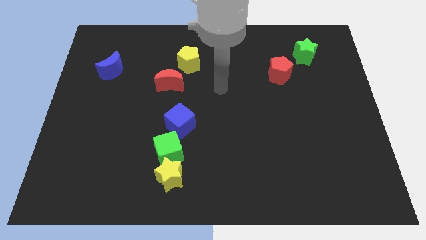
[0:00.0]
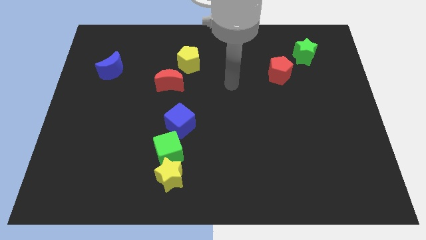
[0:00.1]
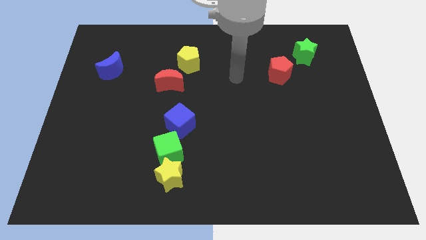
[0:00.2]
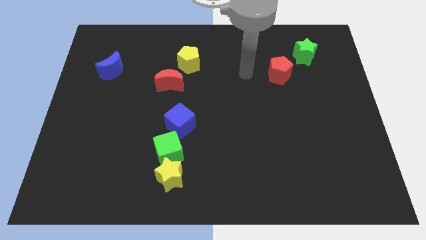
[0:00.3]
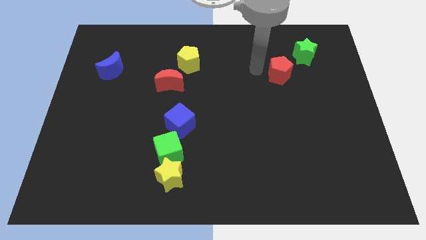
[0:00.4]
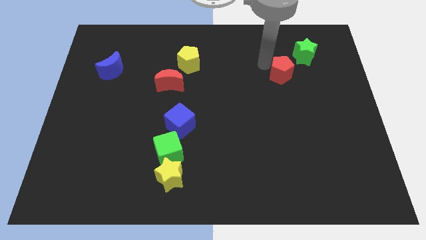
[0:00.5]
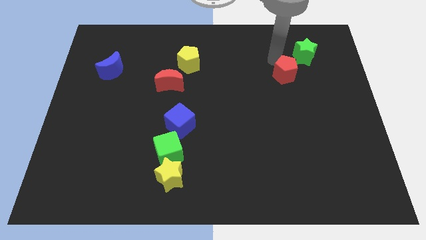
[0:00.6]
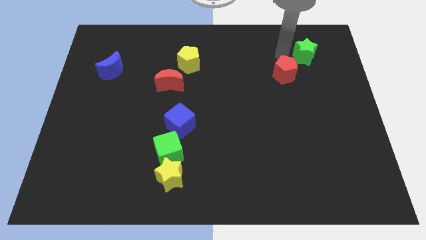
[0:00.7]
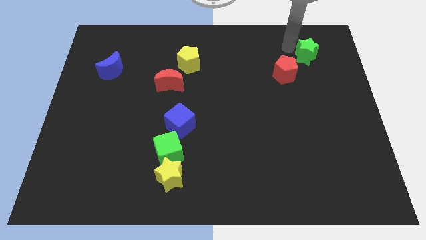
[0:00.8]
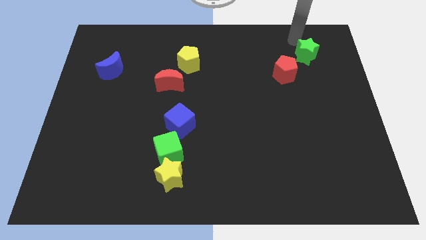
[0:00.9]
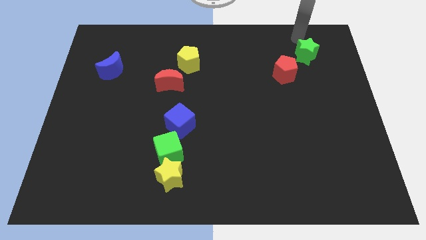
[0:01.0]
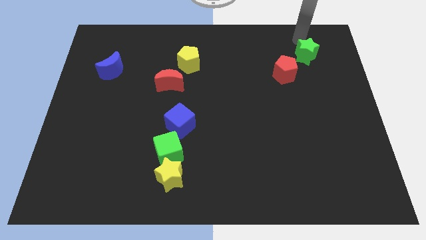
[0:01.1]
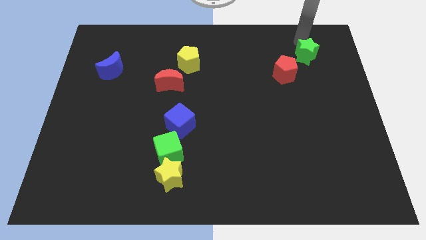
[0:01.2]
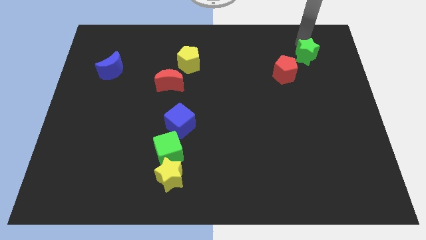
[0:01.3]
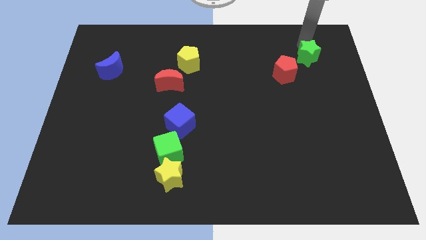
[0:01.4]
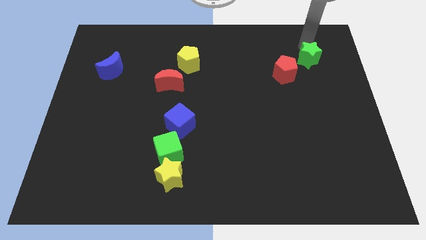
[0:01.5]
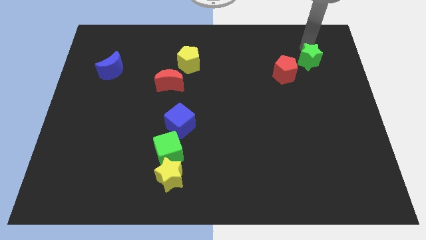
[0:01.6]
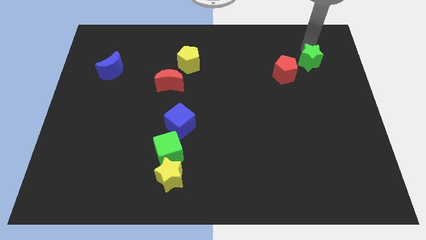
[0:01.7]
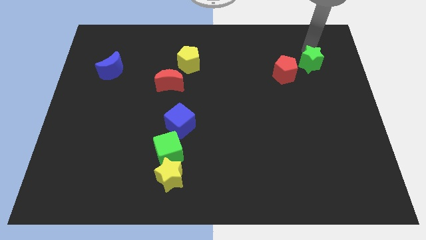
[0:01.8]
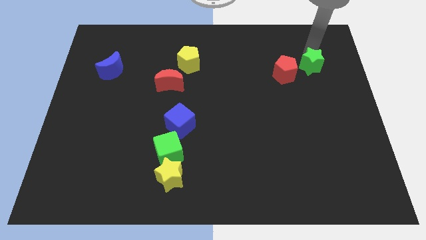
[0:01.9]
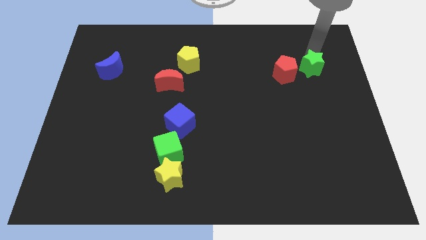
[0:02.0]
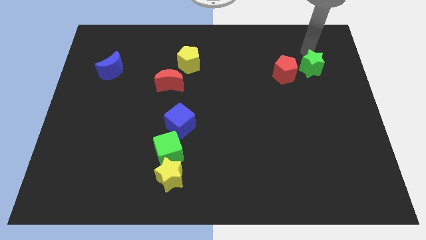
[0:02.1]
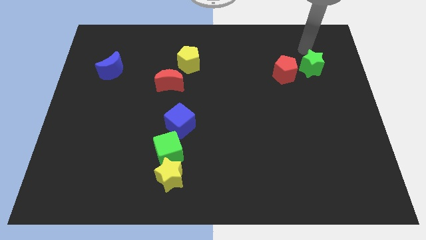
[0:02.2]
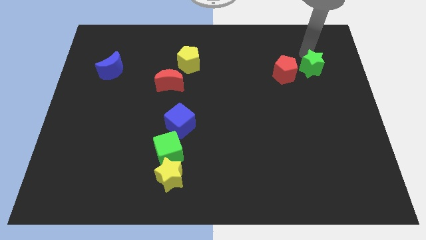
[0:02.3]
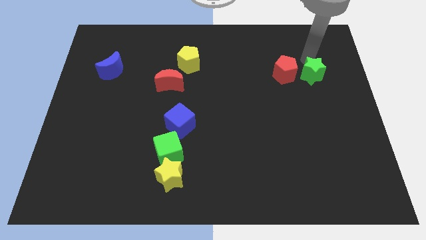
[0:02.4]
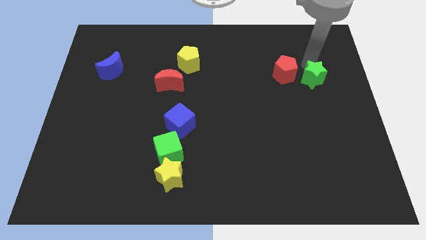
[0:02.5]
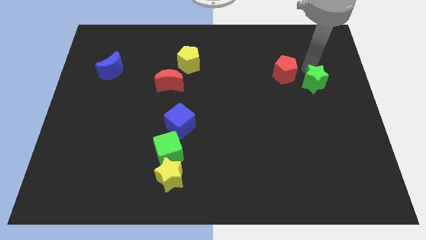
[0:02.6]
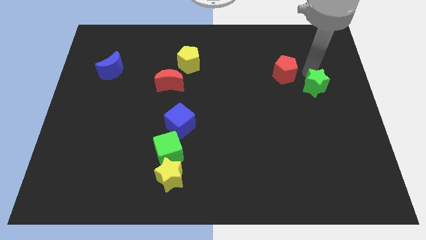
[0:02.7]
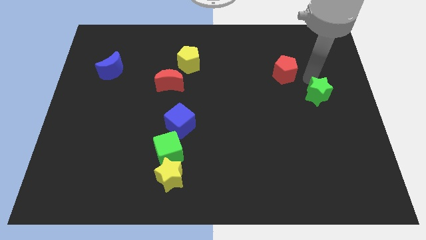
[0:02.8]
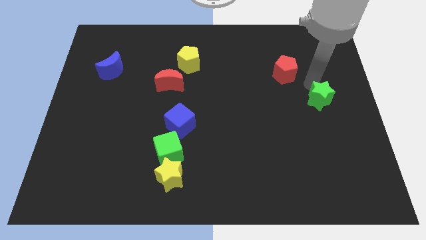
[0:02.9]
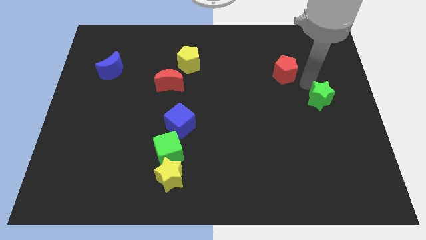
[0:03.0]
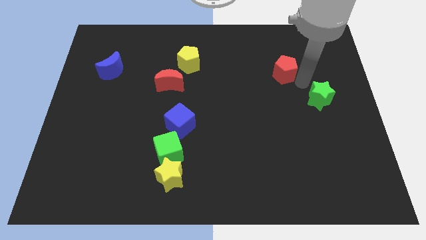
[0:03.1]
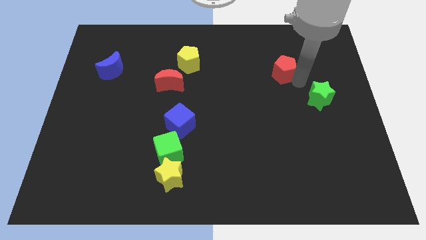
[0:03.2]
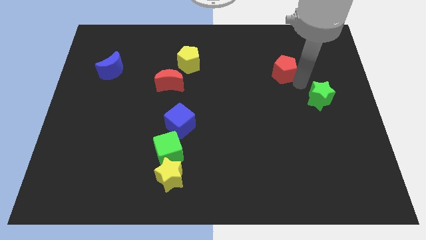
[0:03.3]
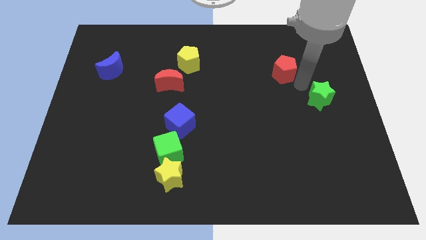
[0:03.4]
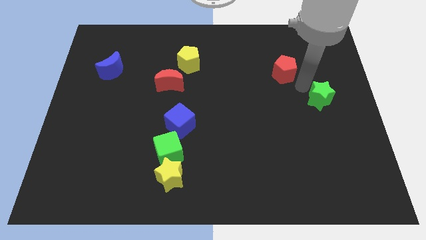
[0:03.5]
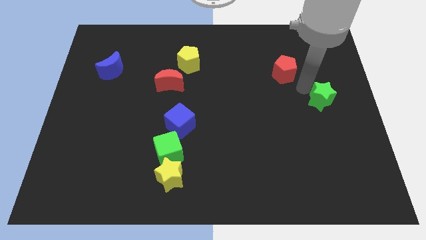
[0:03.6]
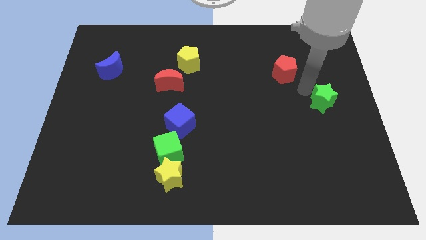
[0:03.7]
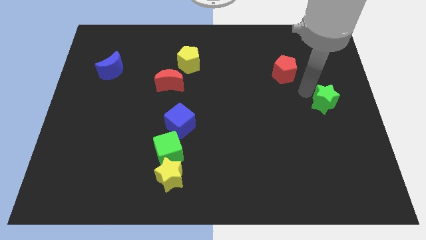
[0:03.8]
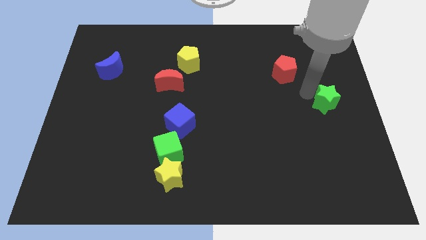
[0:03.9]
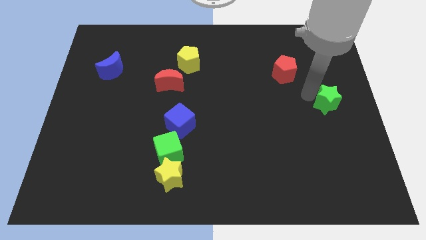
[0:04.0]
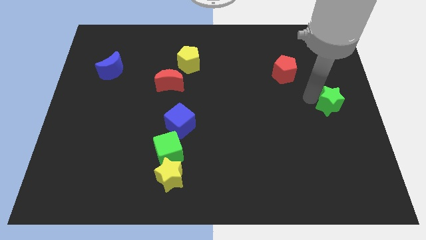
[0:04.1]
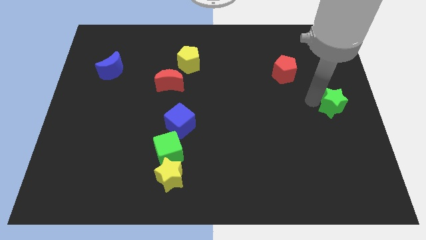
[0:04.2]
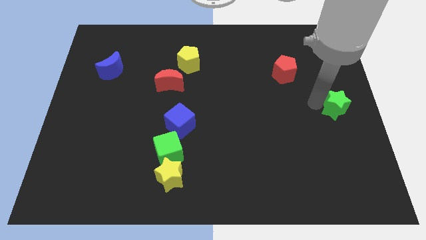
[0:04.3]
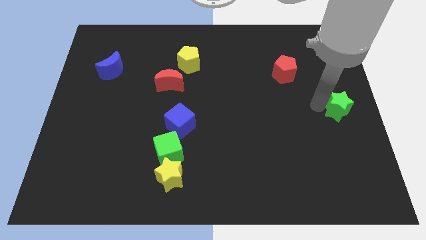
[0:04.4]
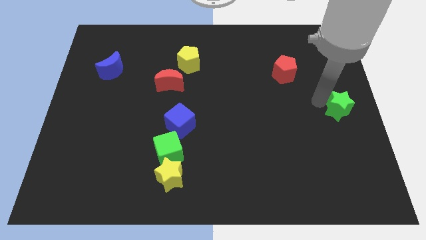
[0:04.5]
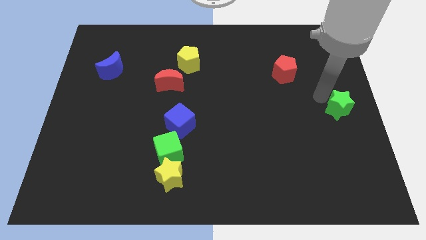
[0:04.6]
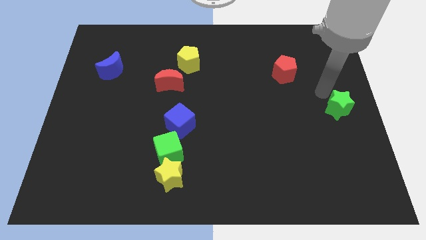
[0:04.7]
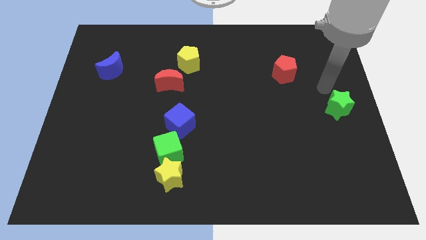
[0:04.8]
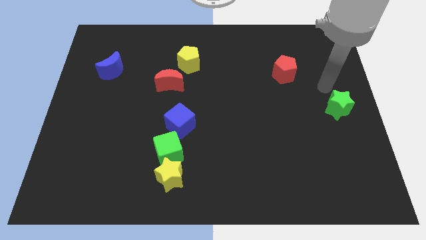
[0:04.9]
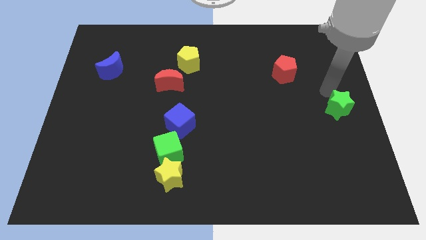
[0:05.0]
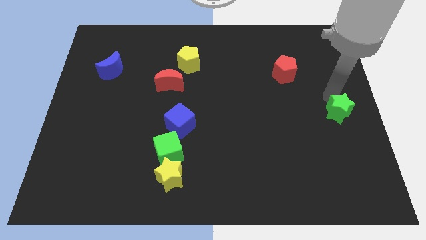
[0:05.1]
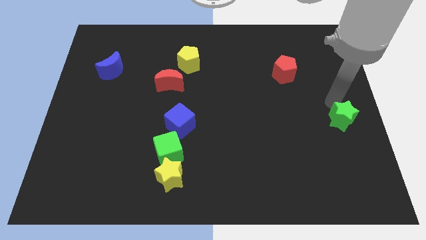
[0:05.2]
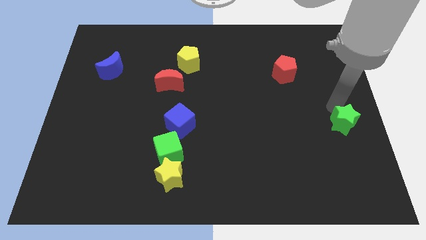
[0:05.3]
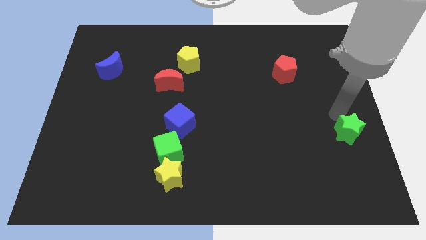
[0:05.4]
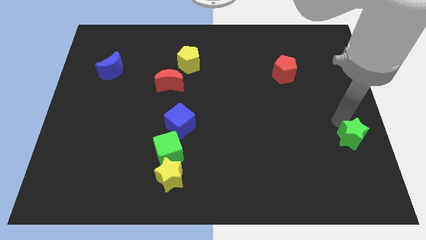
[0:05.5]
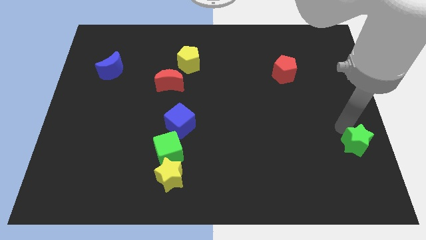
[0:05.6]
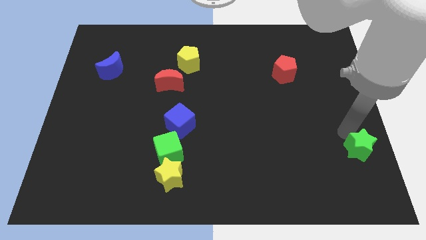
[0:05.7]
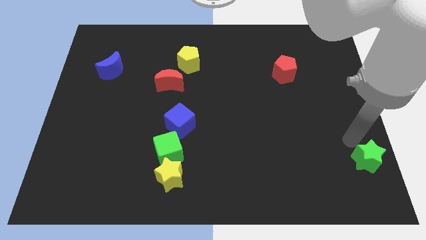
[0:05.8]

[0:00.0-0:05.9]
slide the green star to the lower right corner

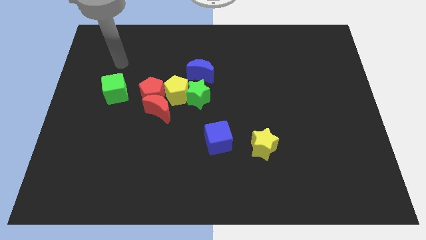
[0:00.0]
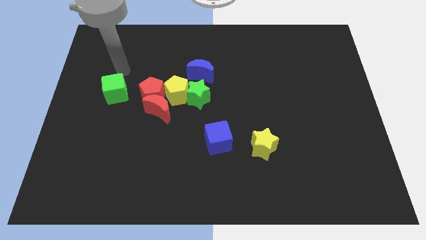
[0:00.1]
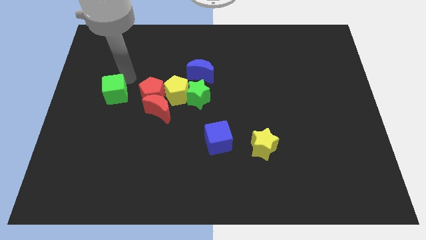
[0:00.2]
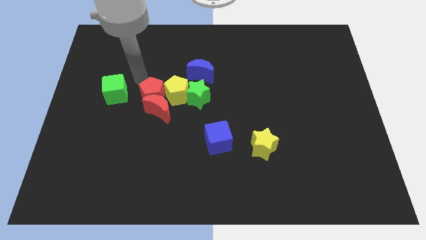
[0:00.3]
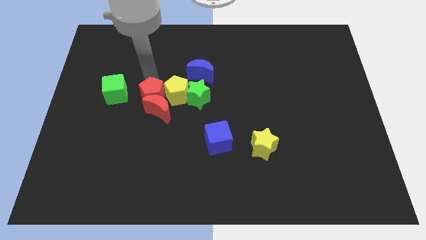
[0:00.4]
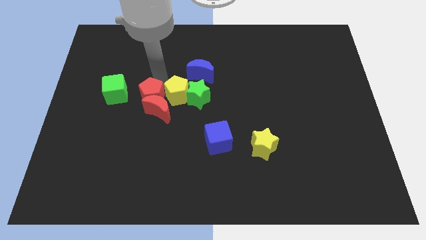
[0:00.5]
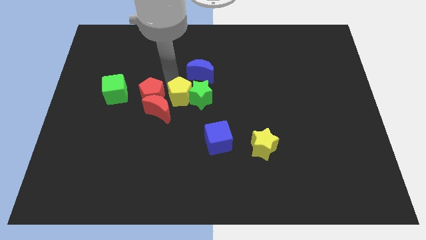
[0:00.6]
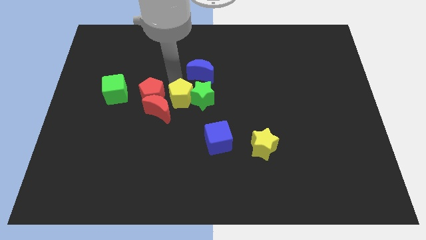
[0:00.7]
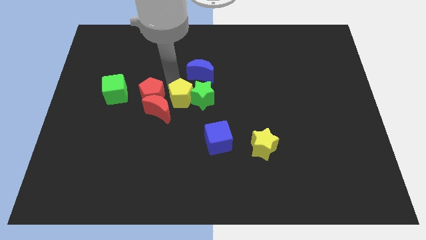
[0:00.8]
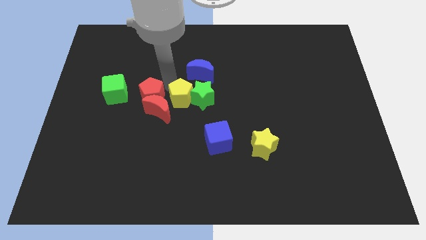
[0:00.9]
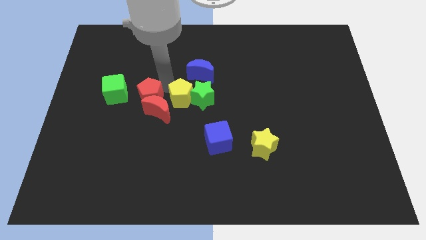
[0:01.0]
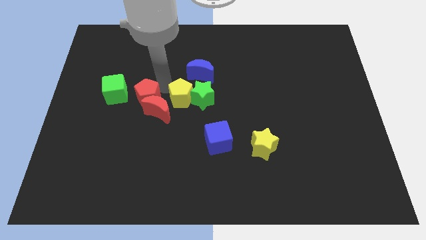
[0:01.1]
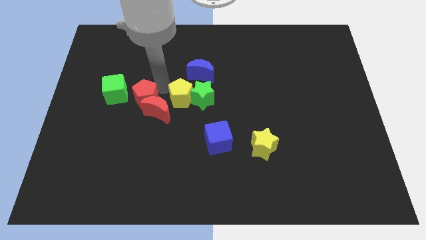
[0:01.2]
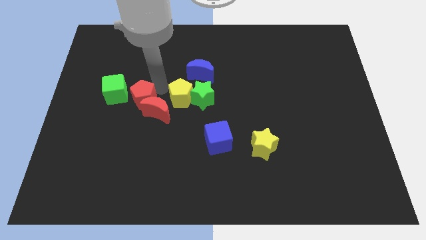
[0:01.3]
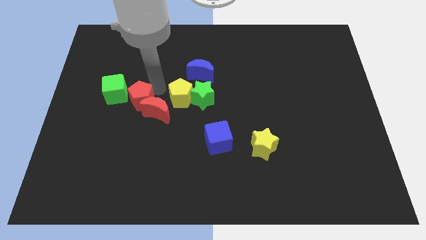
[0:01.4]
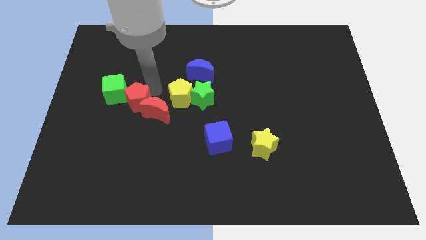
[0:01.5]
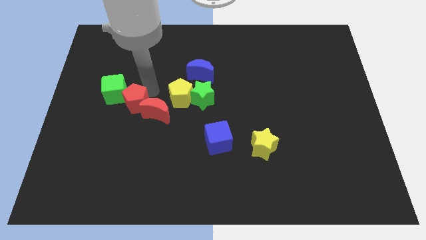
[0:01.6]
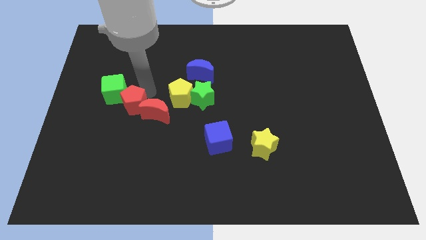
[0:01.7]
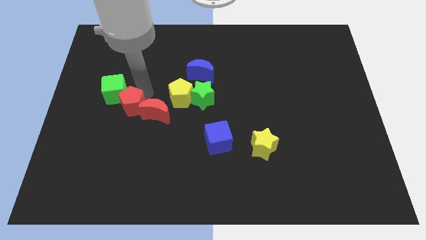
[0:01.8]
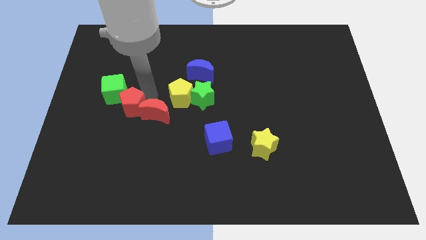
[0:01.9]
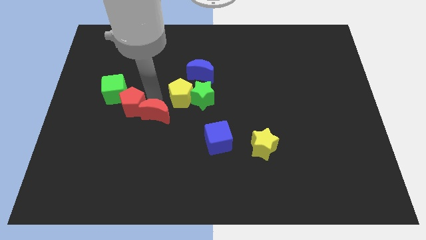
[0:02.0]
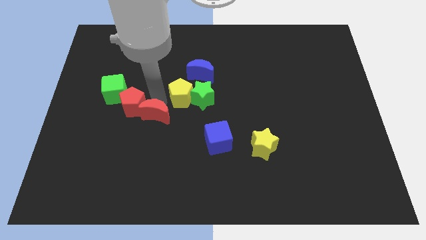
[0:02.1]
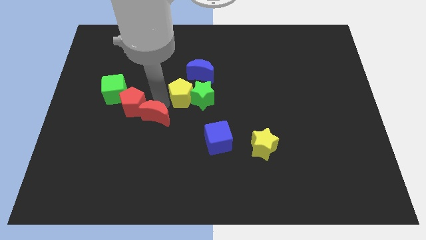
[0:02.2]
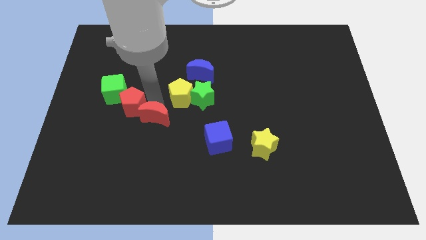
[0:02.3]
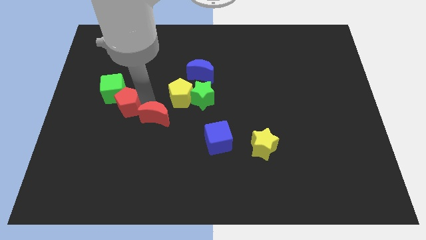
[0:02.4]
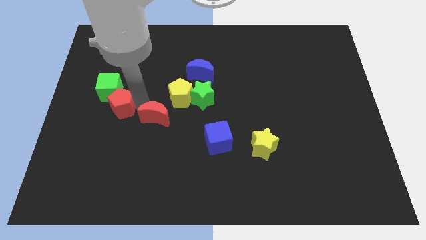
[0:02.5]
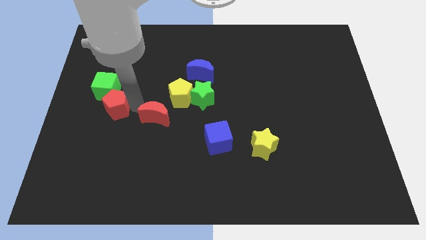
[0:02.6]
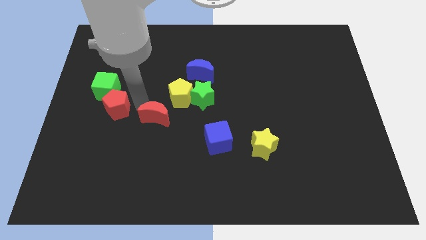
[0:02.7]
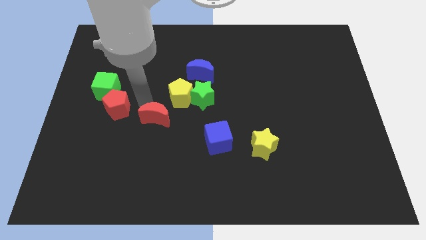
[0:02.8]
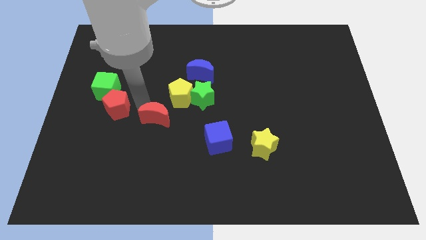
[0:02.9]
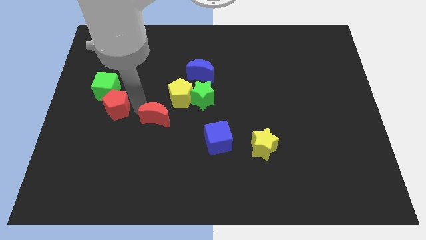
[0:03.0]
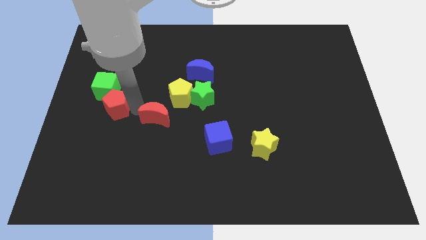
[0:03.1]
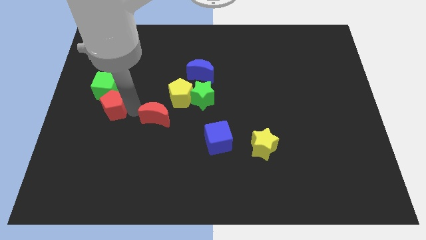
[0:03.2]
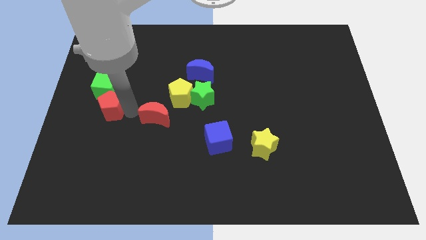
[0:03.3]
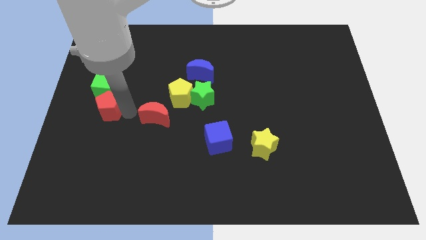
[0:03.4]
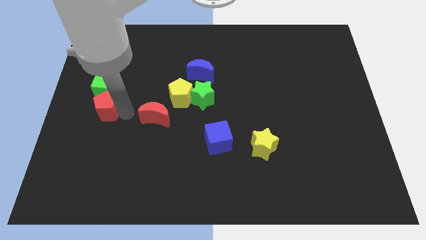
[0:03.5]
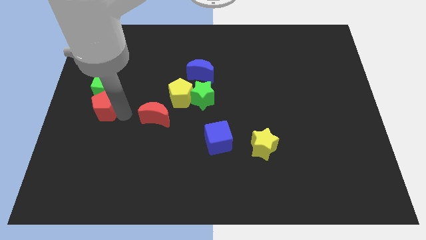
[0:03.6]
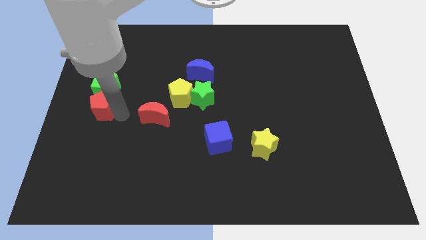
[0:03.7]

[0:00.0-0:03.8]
push the red pentagon to the center left
